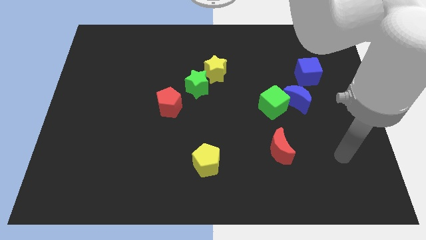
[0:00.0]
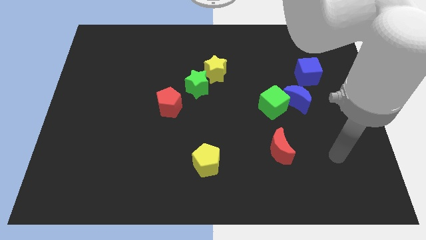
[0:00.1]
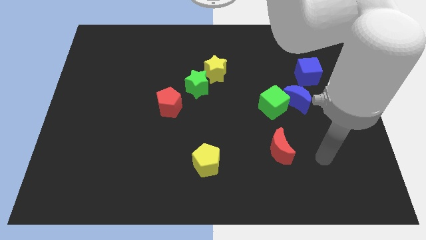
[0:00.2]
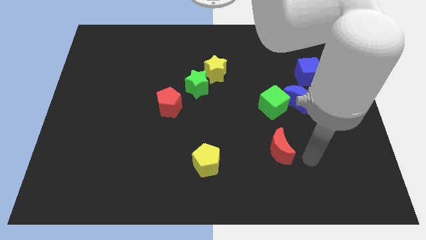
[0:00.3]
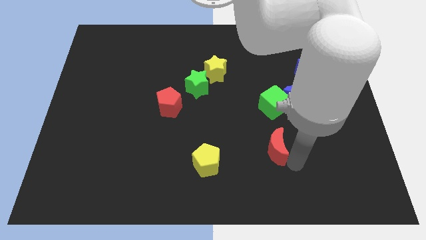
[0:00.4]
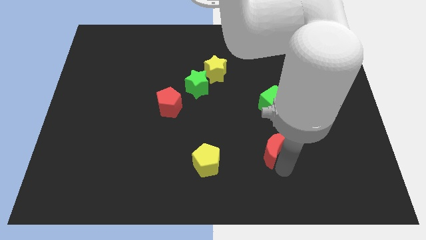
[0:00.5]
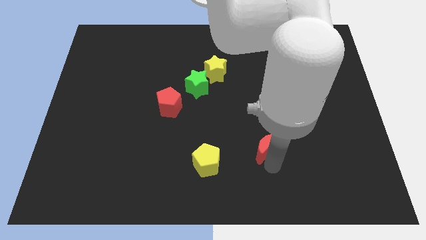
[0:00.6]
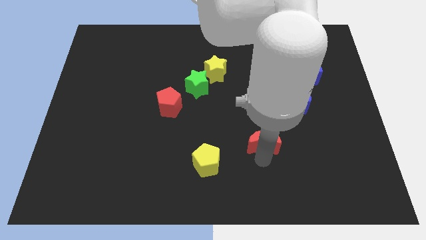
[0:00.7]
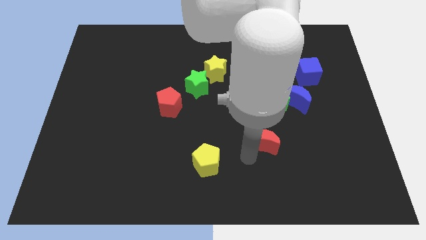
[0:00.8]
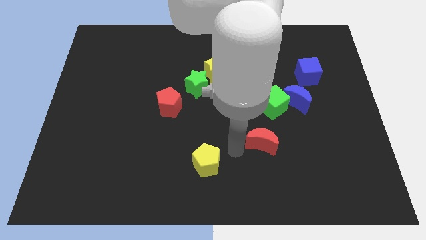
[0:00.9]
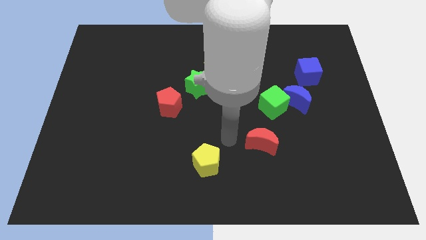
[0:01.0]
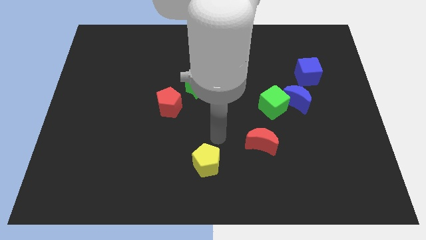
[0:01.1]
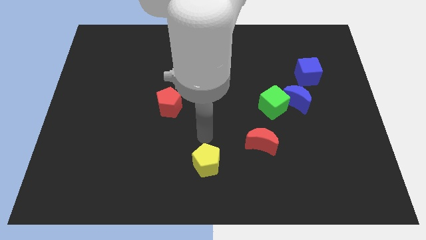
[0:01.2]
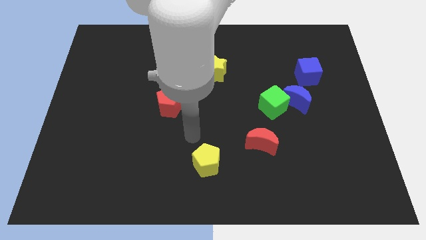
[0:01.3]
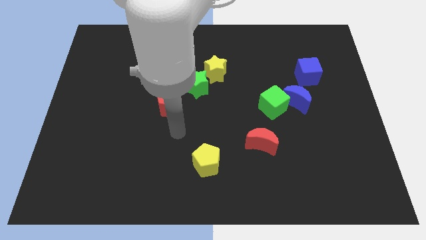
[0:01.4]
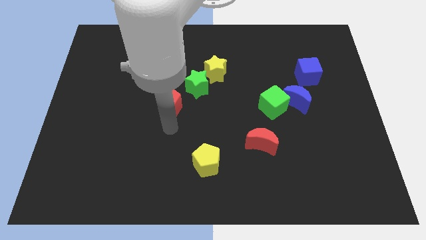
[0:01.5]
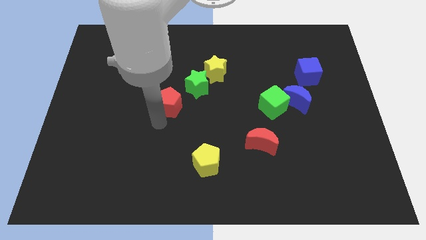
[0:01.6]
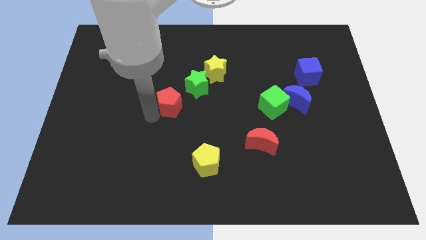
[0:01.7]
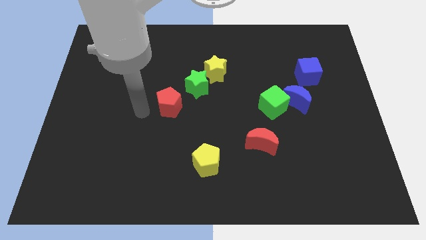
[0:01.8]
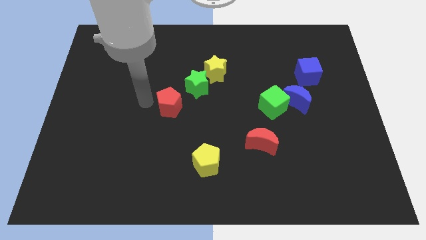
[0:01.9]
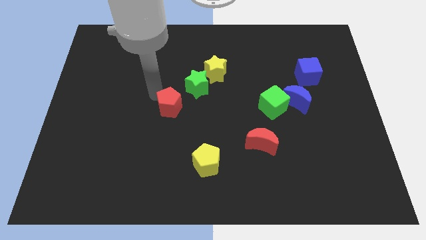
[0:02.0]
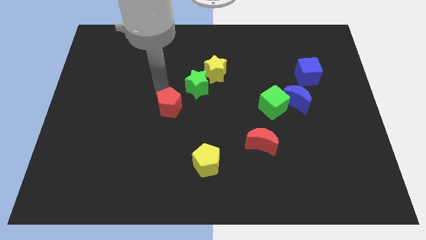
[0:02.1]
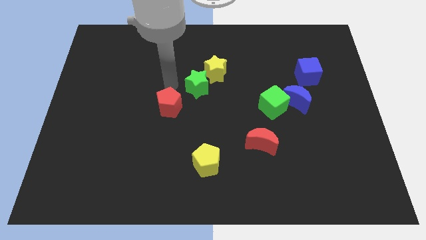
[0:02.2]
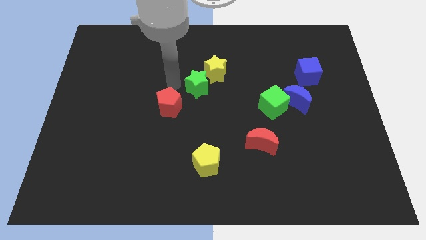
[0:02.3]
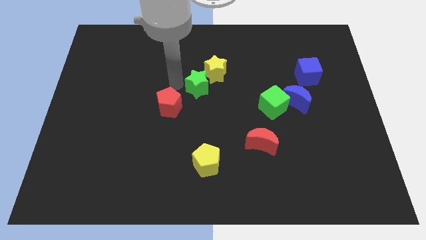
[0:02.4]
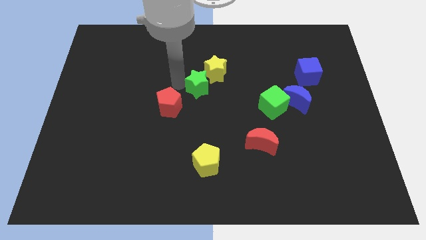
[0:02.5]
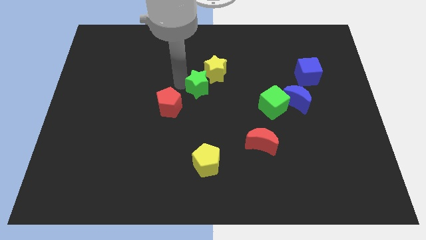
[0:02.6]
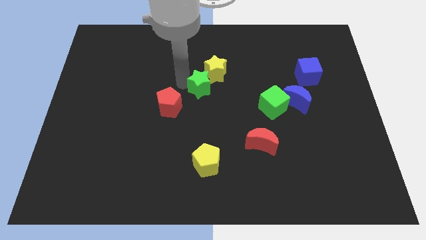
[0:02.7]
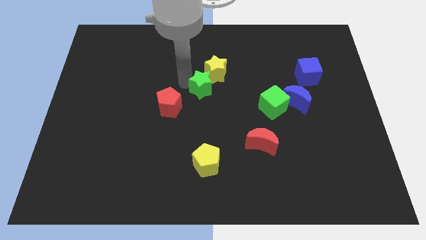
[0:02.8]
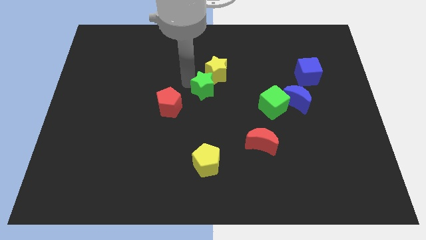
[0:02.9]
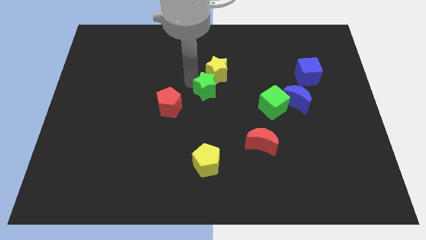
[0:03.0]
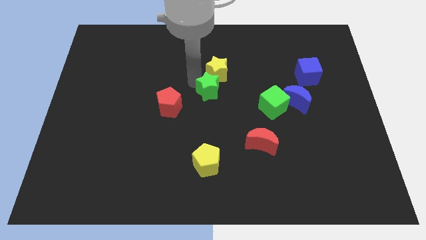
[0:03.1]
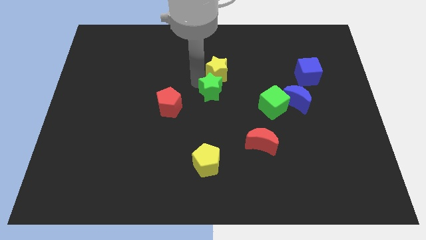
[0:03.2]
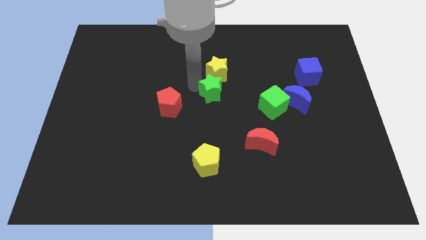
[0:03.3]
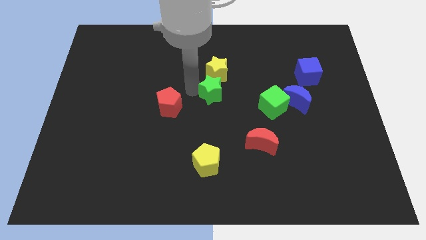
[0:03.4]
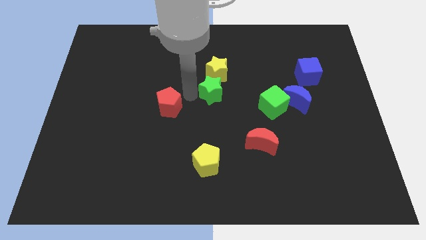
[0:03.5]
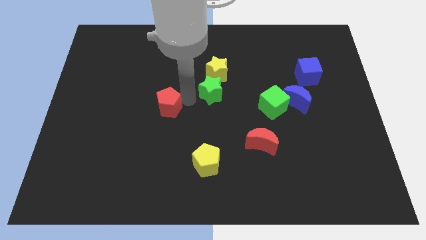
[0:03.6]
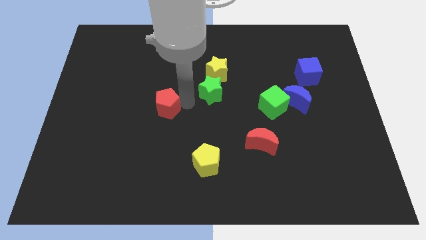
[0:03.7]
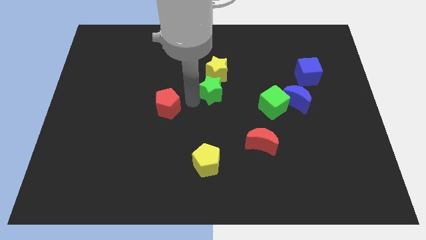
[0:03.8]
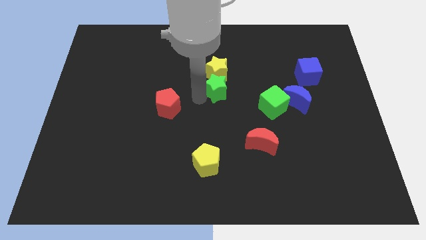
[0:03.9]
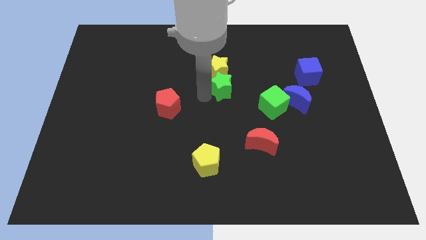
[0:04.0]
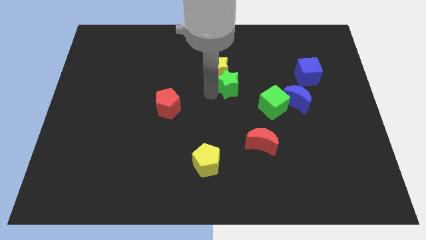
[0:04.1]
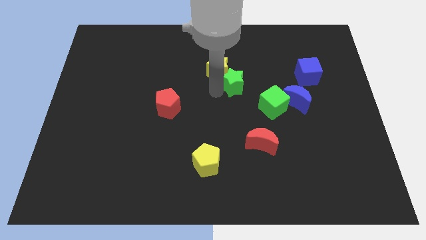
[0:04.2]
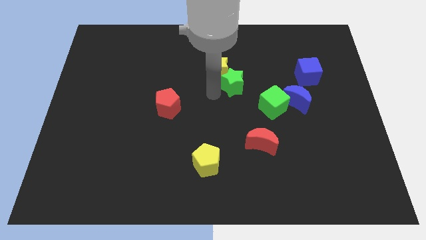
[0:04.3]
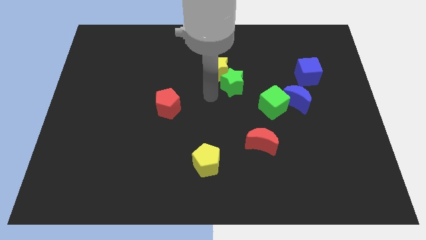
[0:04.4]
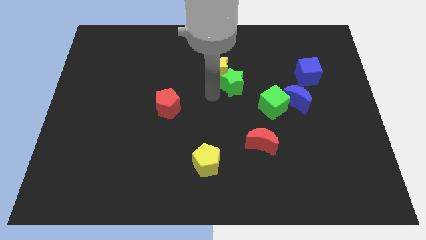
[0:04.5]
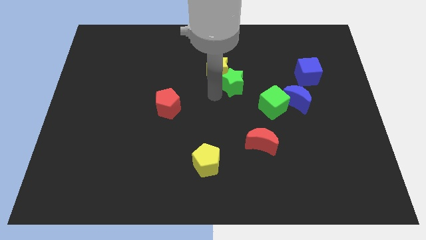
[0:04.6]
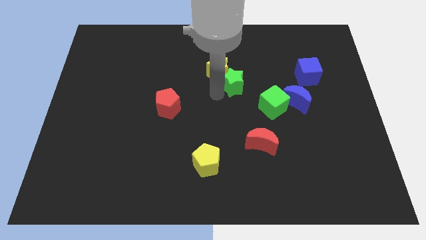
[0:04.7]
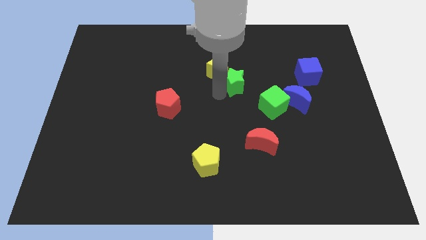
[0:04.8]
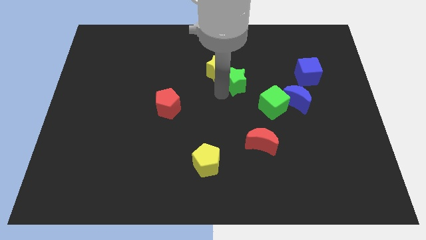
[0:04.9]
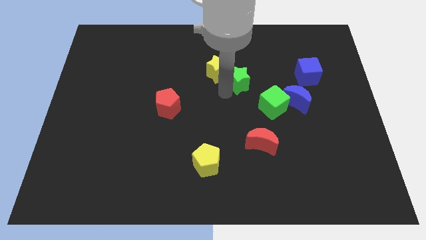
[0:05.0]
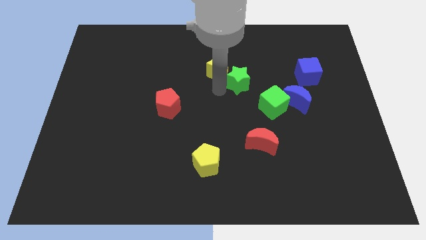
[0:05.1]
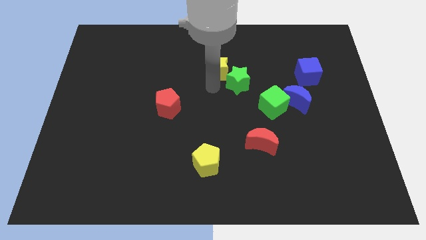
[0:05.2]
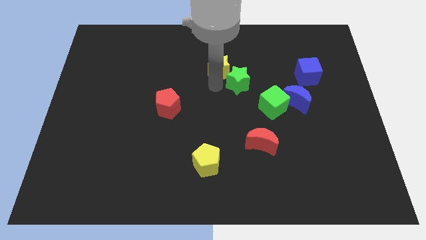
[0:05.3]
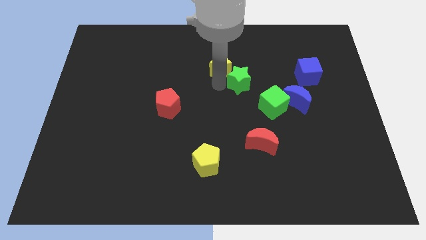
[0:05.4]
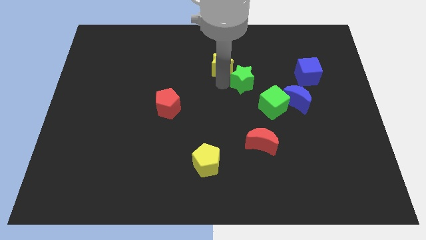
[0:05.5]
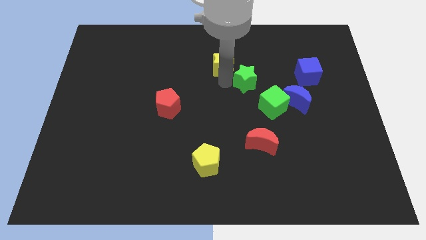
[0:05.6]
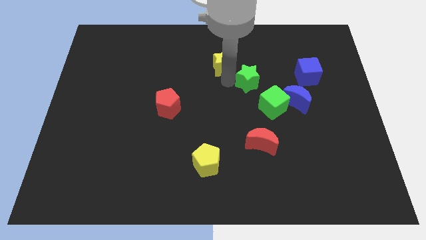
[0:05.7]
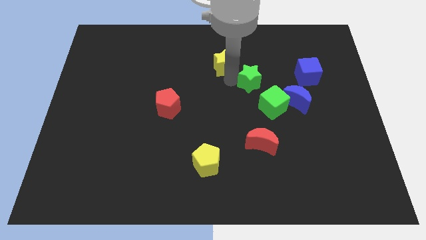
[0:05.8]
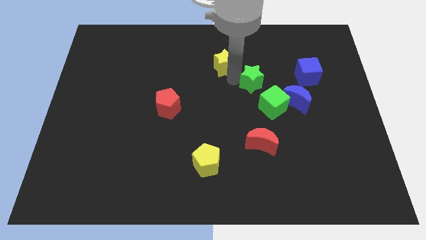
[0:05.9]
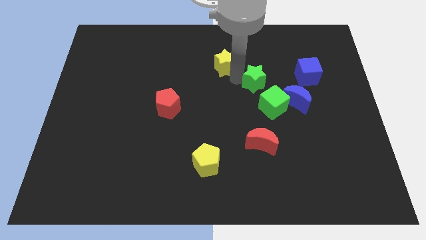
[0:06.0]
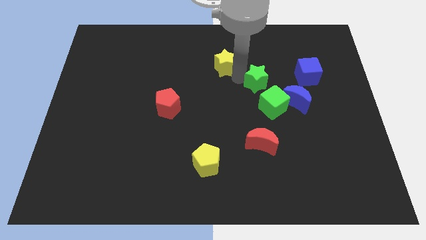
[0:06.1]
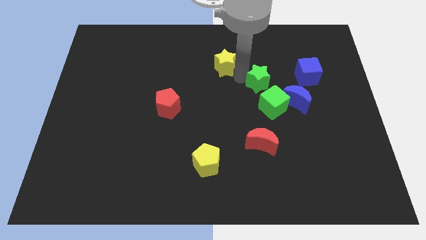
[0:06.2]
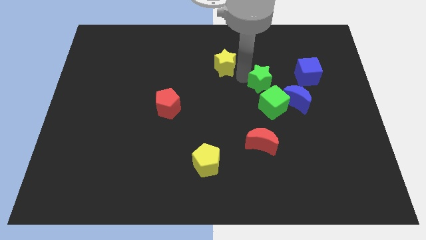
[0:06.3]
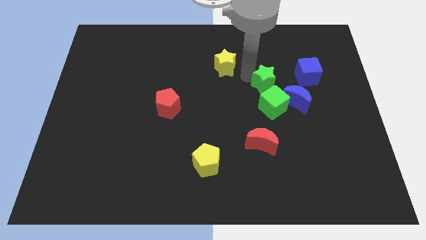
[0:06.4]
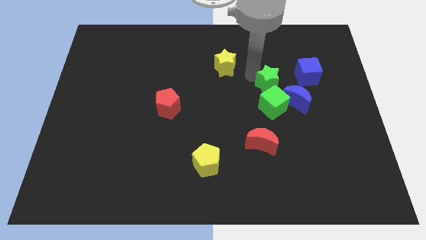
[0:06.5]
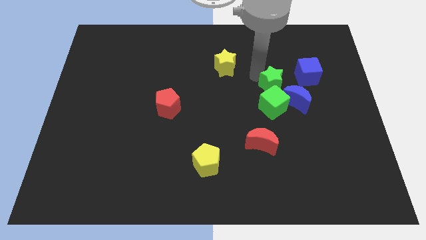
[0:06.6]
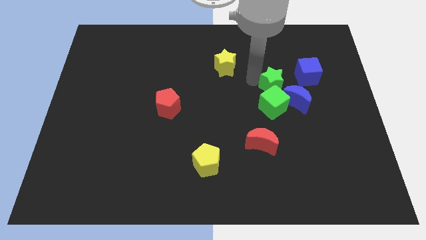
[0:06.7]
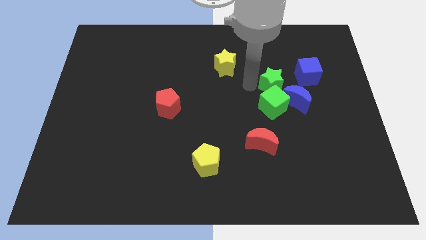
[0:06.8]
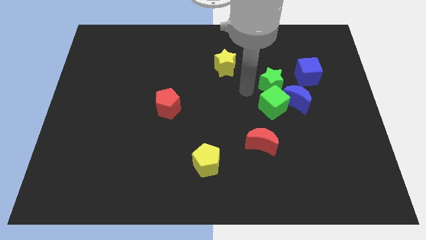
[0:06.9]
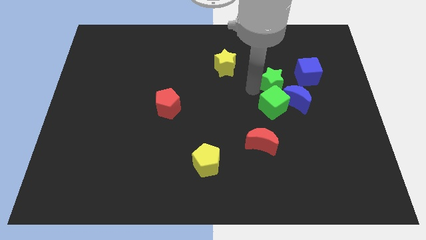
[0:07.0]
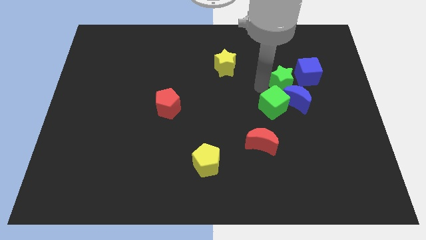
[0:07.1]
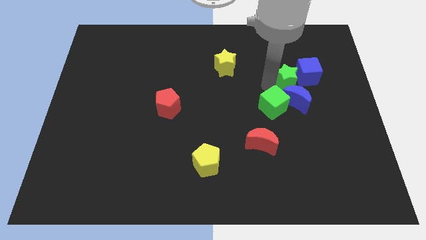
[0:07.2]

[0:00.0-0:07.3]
move the green star close to the blue cube
